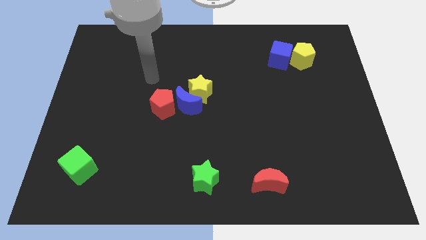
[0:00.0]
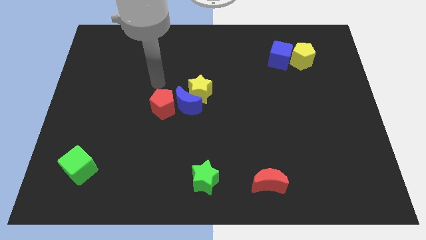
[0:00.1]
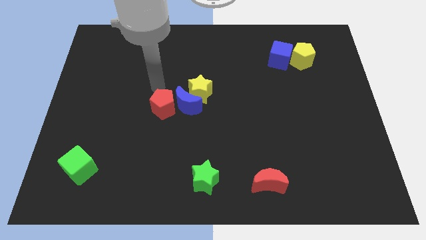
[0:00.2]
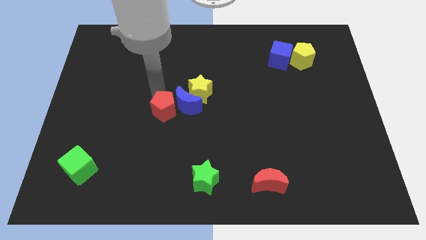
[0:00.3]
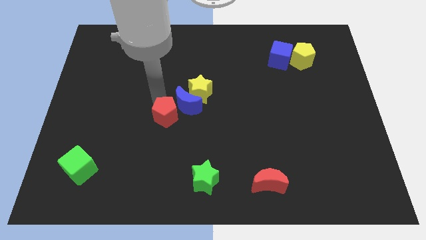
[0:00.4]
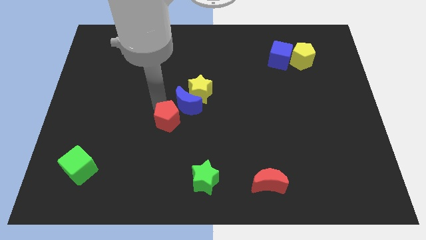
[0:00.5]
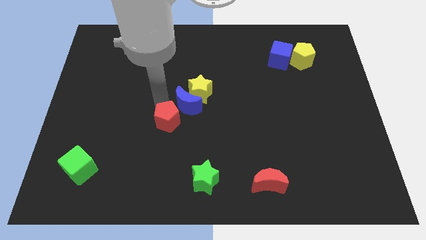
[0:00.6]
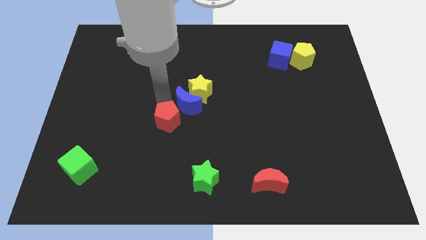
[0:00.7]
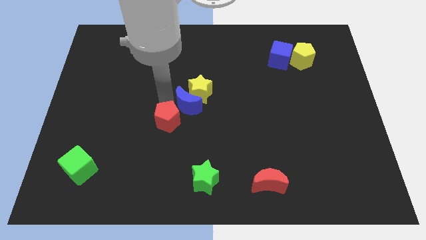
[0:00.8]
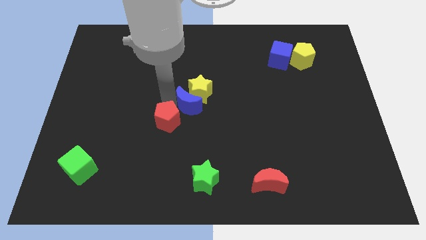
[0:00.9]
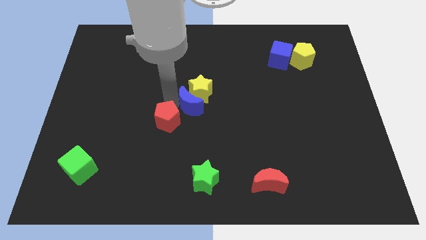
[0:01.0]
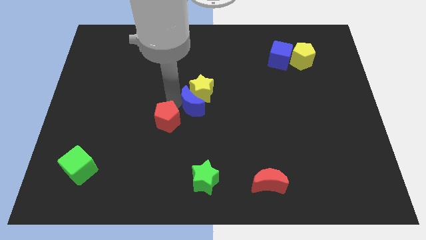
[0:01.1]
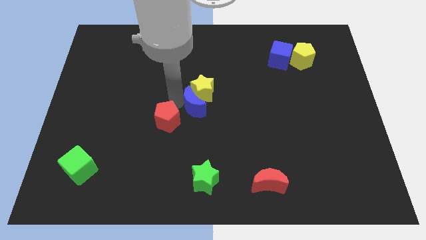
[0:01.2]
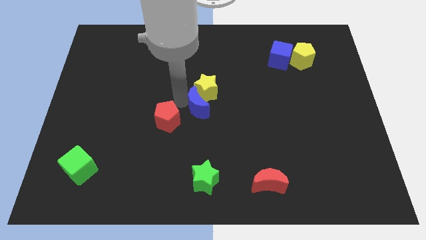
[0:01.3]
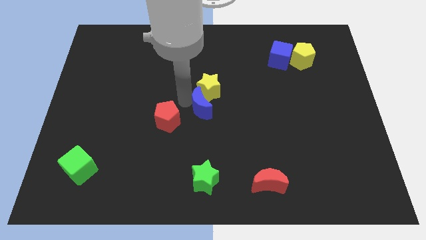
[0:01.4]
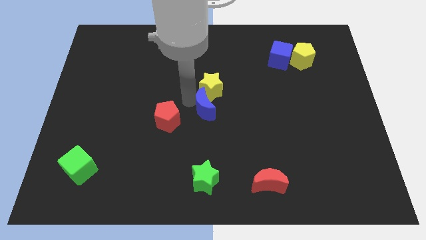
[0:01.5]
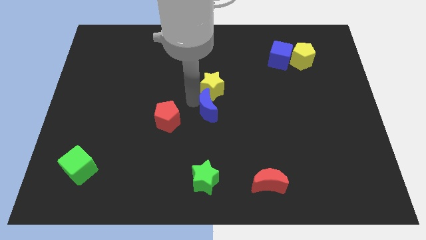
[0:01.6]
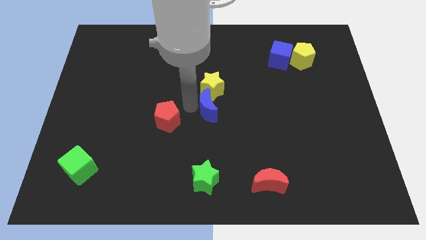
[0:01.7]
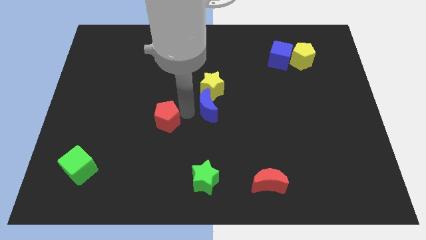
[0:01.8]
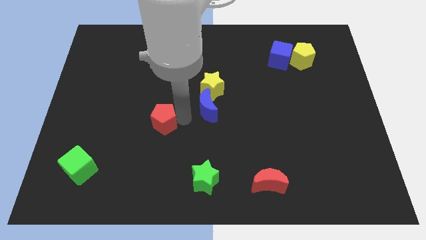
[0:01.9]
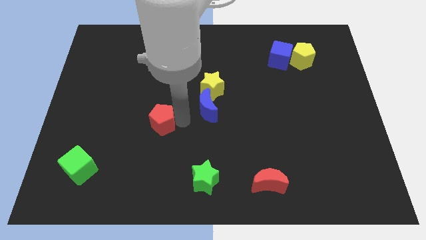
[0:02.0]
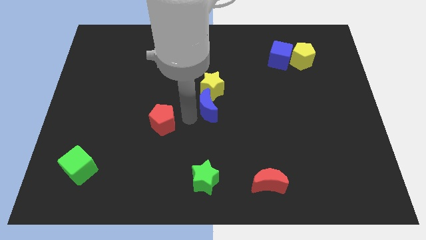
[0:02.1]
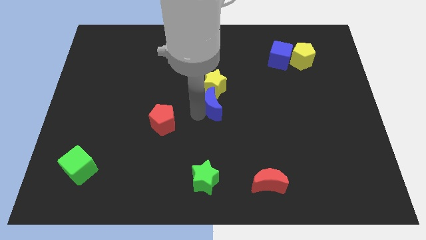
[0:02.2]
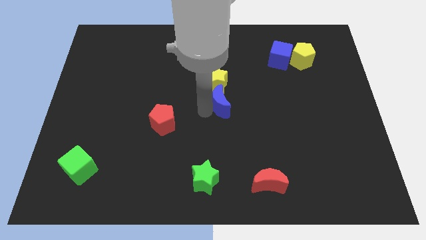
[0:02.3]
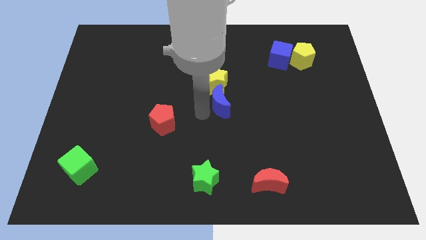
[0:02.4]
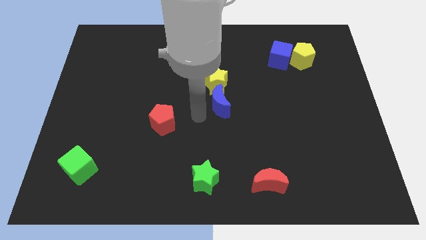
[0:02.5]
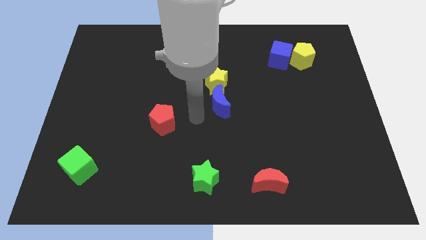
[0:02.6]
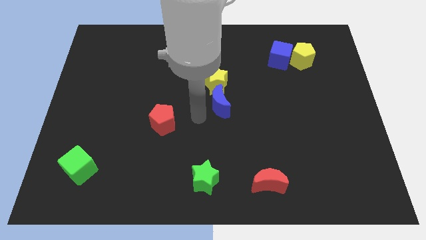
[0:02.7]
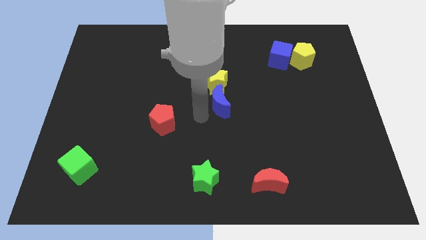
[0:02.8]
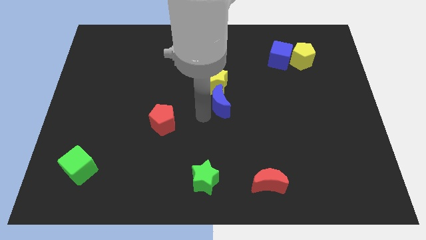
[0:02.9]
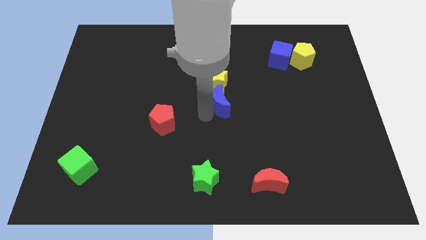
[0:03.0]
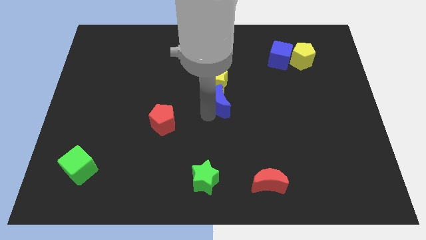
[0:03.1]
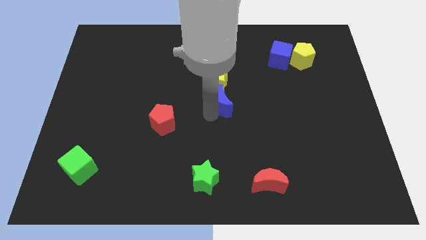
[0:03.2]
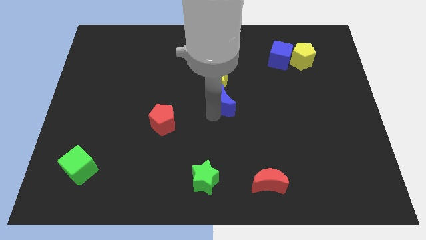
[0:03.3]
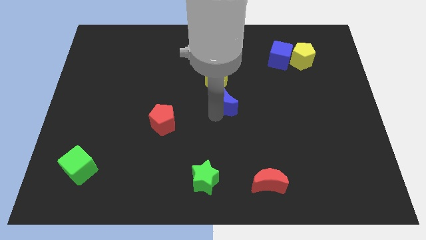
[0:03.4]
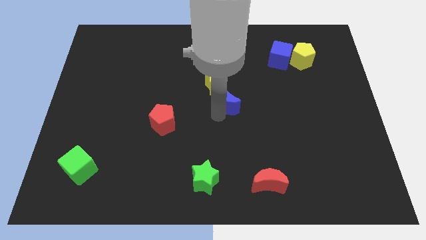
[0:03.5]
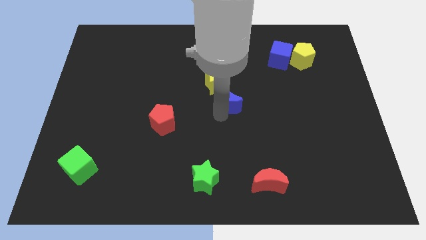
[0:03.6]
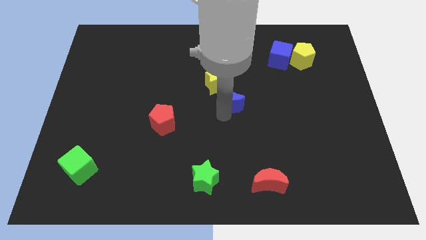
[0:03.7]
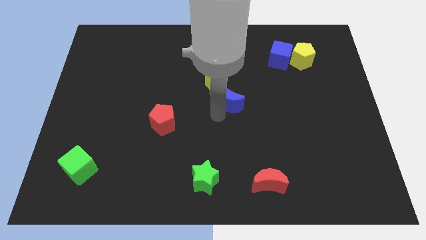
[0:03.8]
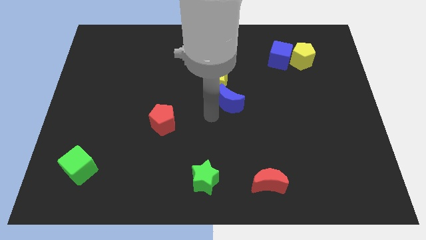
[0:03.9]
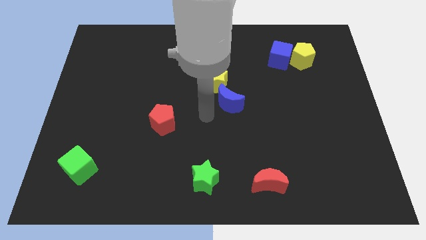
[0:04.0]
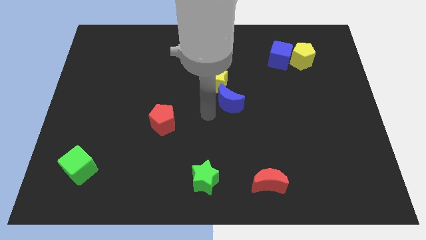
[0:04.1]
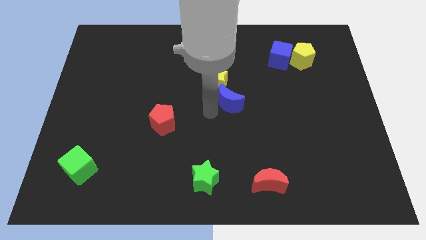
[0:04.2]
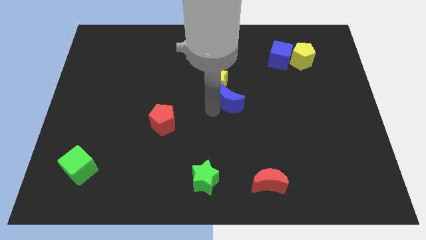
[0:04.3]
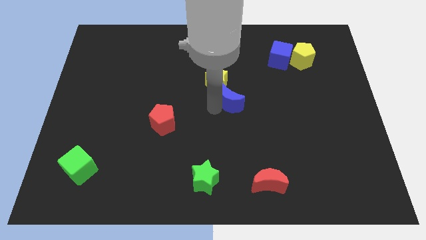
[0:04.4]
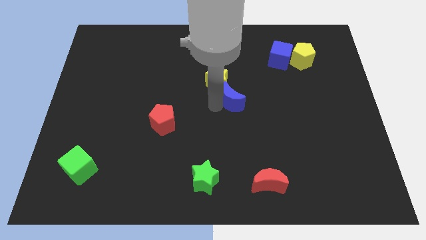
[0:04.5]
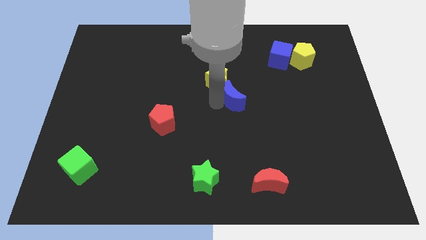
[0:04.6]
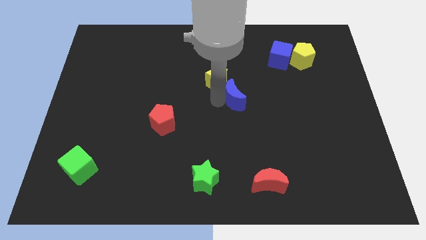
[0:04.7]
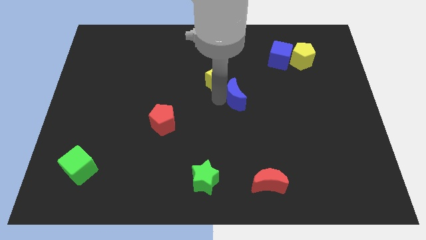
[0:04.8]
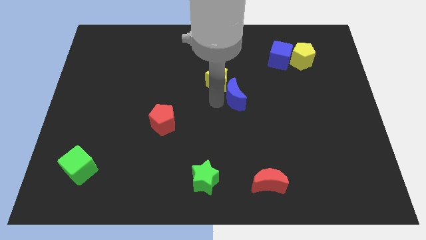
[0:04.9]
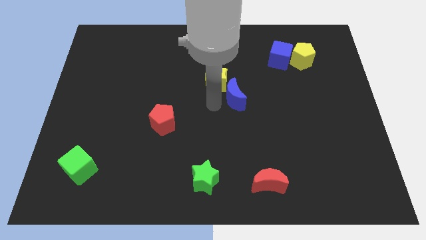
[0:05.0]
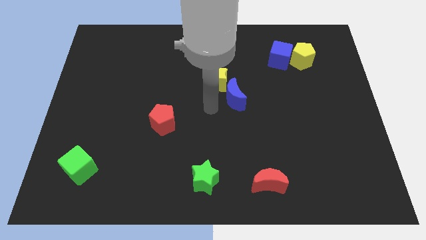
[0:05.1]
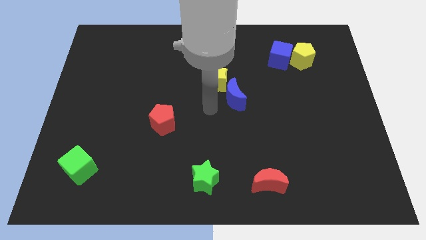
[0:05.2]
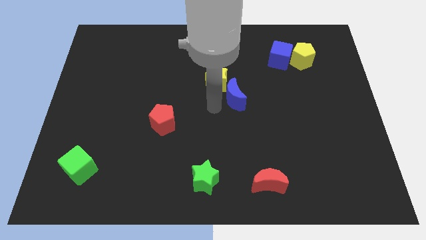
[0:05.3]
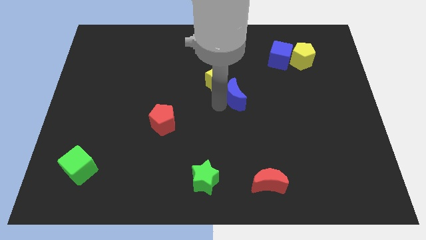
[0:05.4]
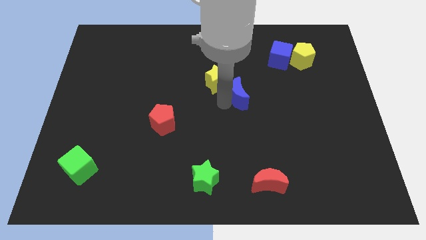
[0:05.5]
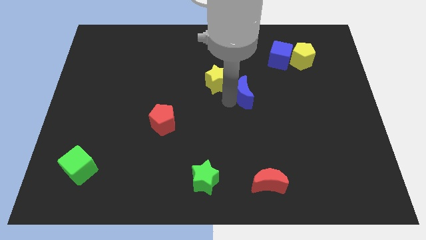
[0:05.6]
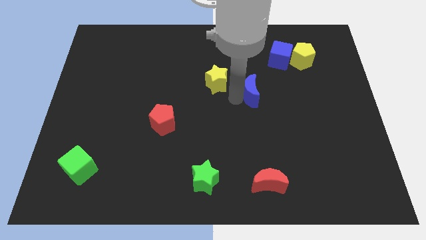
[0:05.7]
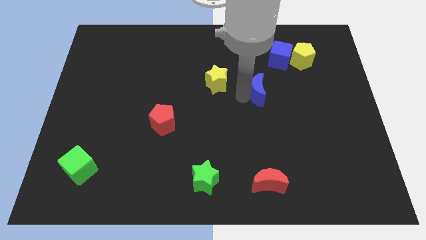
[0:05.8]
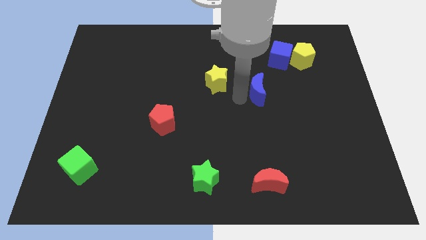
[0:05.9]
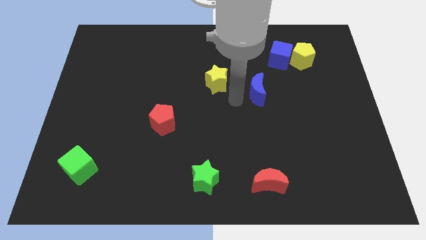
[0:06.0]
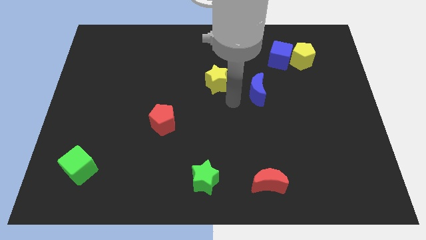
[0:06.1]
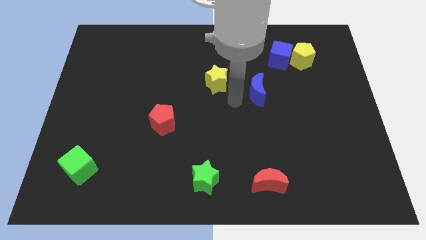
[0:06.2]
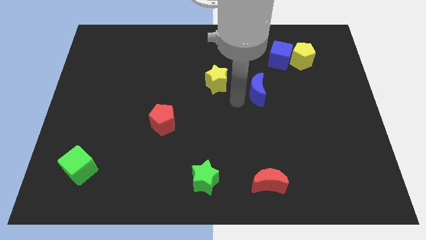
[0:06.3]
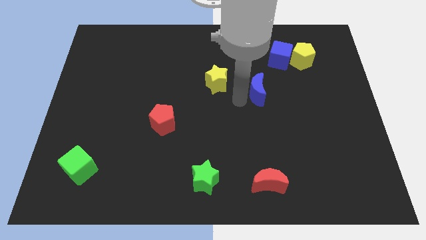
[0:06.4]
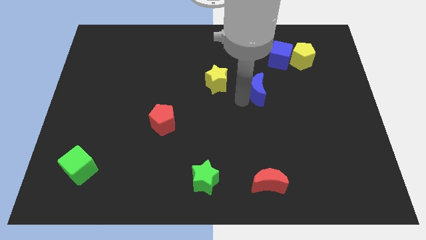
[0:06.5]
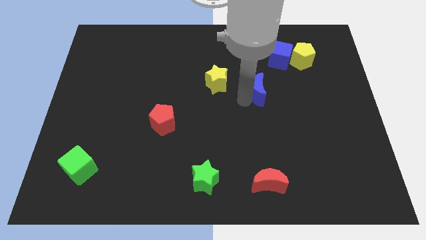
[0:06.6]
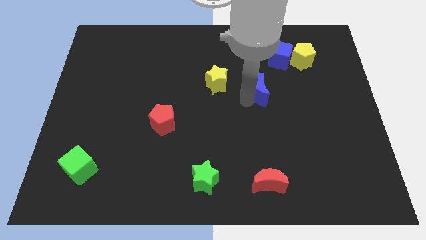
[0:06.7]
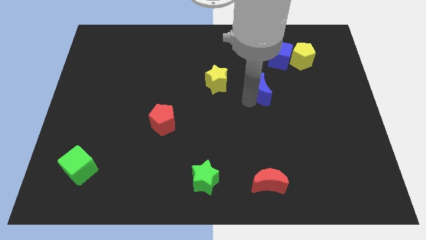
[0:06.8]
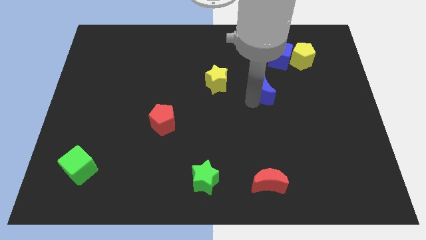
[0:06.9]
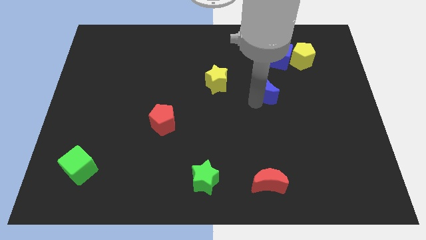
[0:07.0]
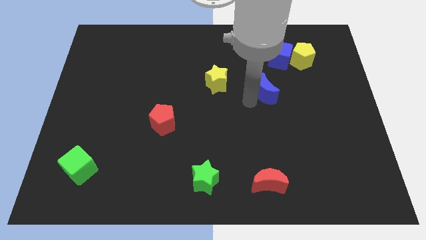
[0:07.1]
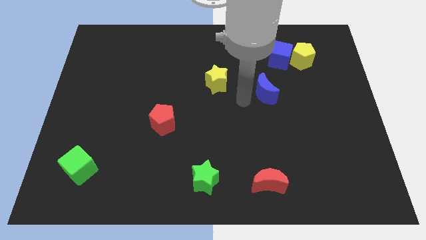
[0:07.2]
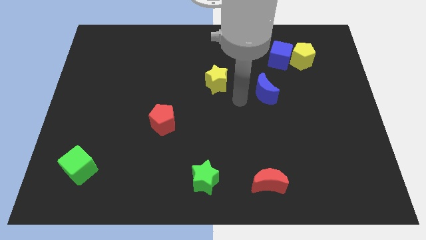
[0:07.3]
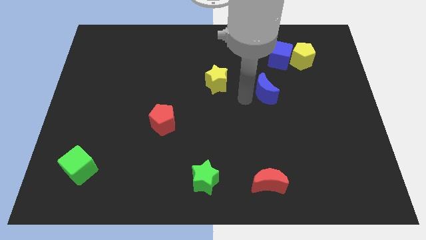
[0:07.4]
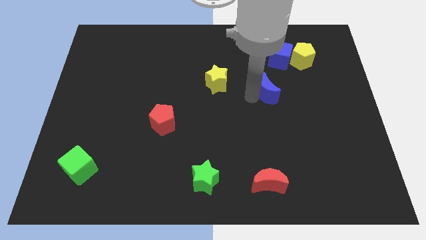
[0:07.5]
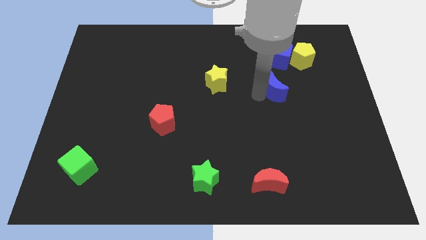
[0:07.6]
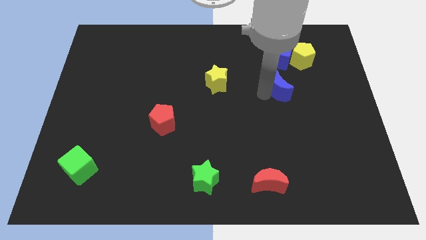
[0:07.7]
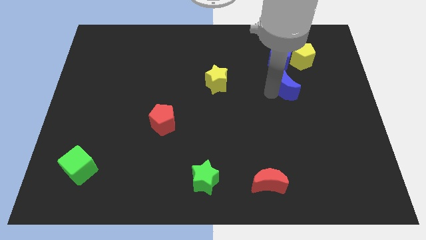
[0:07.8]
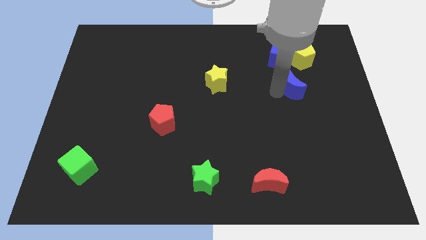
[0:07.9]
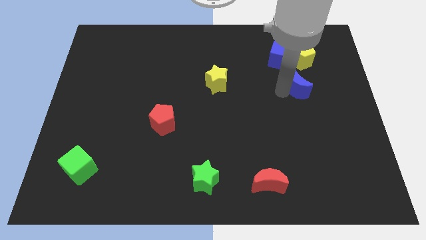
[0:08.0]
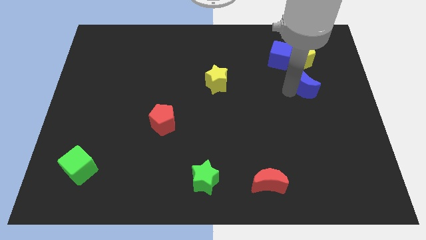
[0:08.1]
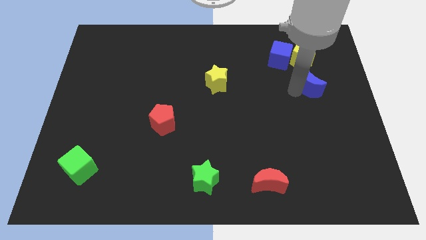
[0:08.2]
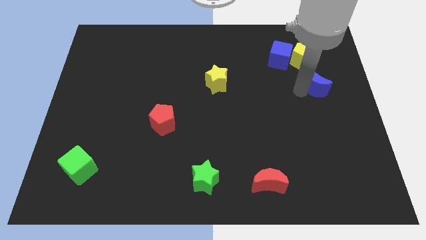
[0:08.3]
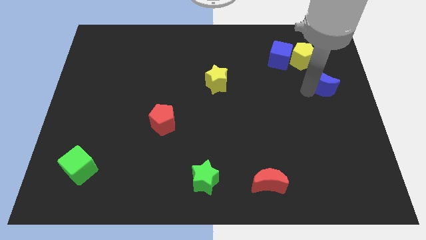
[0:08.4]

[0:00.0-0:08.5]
put the blue moon to the bottom right of the yellow pentagon
